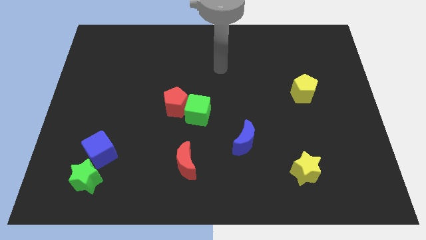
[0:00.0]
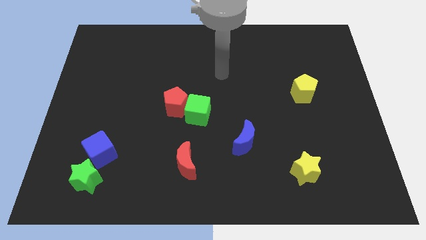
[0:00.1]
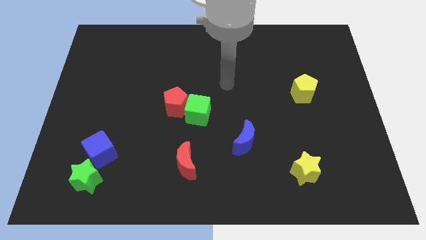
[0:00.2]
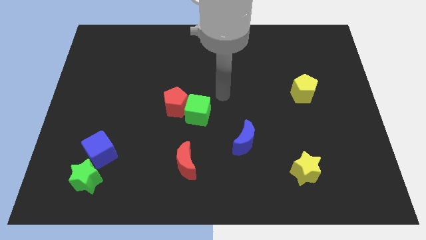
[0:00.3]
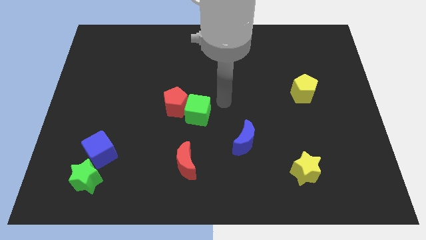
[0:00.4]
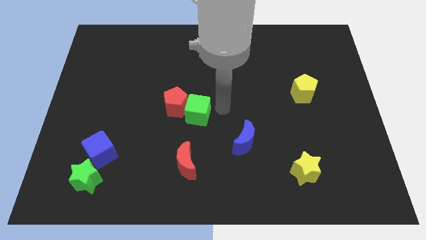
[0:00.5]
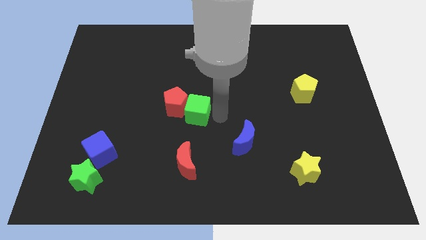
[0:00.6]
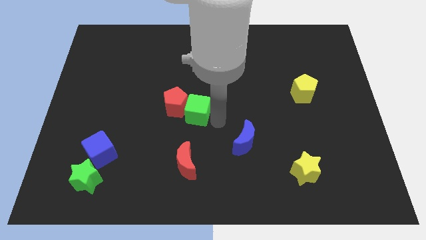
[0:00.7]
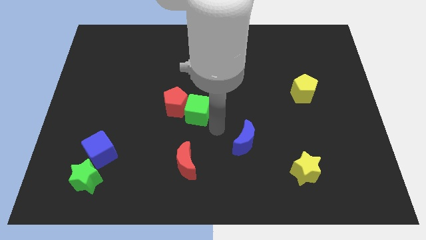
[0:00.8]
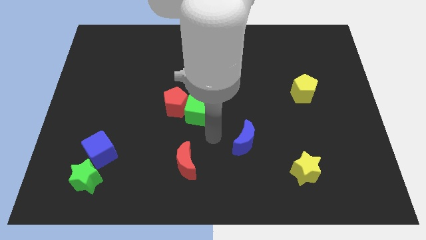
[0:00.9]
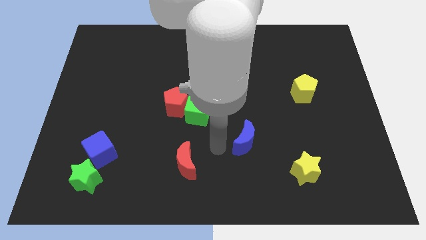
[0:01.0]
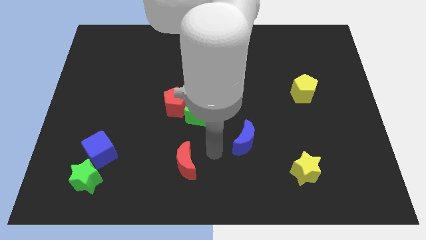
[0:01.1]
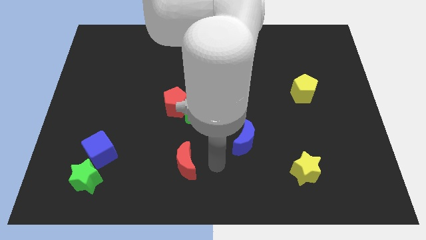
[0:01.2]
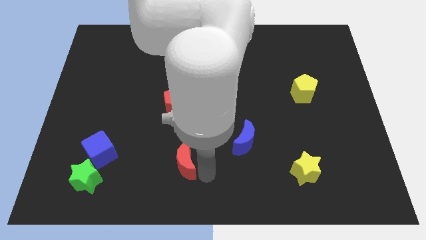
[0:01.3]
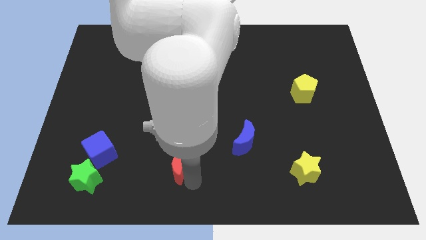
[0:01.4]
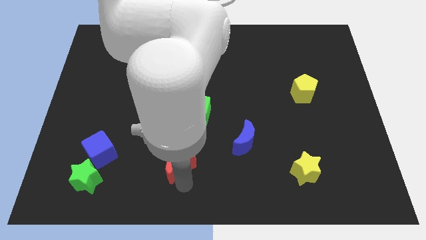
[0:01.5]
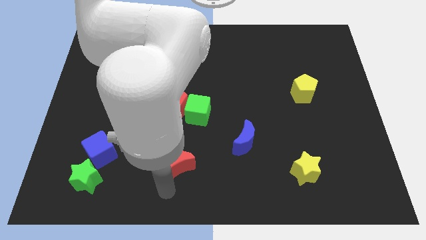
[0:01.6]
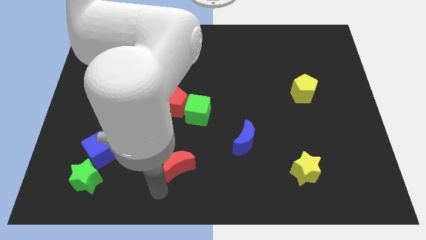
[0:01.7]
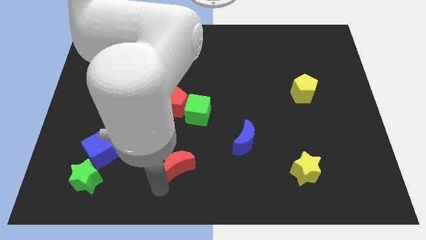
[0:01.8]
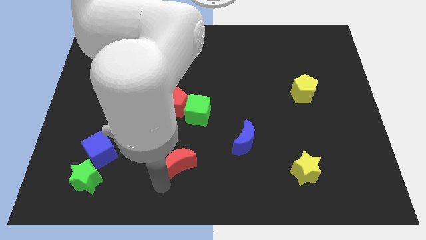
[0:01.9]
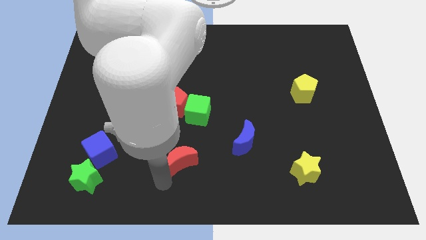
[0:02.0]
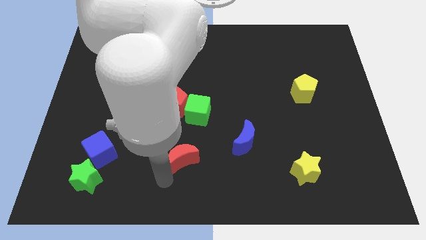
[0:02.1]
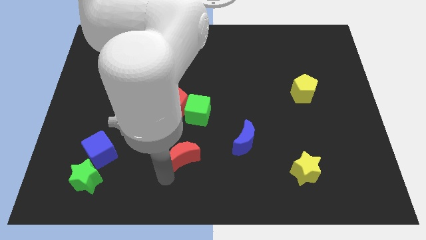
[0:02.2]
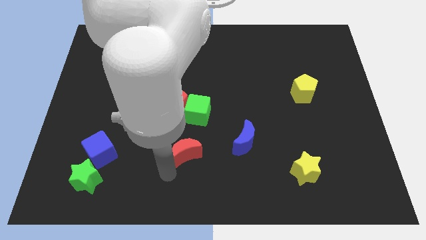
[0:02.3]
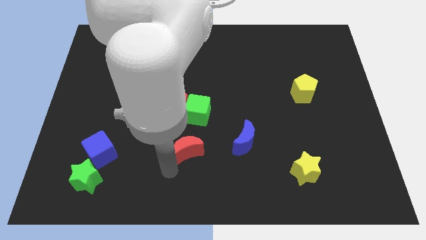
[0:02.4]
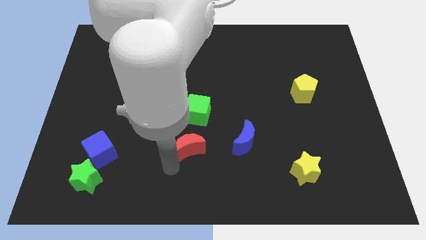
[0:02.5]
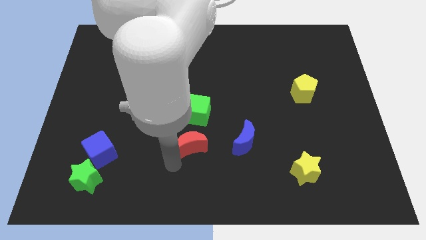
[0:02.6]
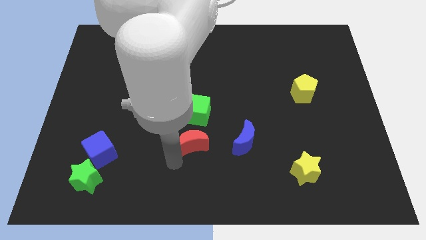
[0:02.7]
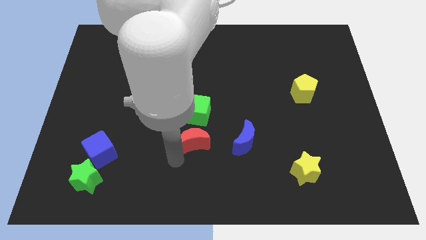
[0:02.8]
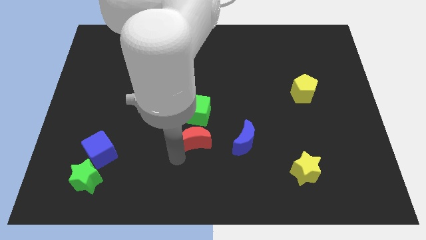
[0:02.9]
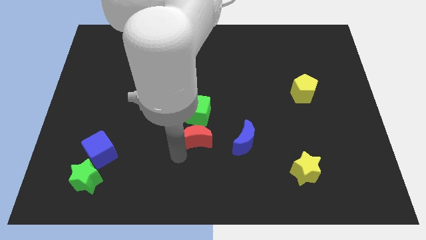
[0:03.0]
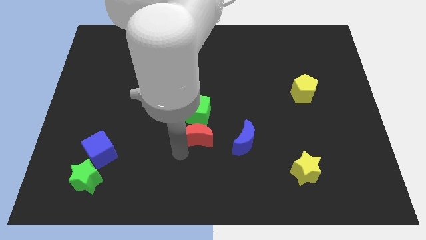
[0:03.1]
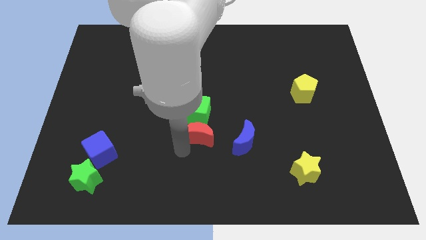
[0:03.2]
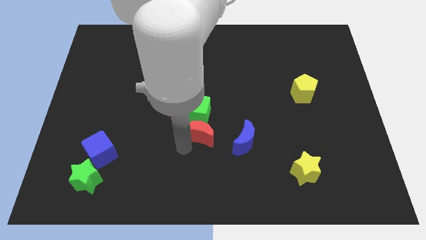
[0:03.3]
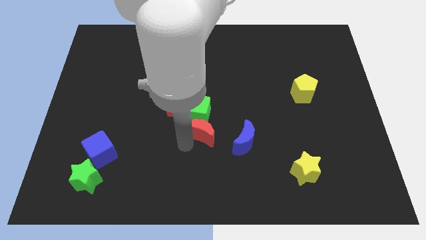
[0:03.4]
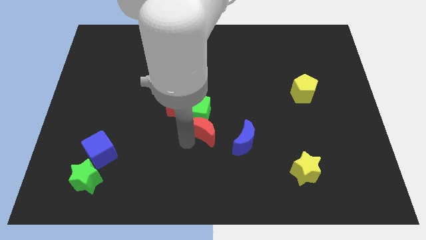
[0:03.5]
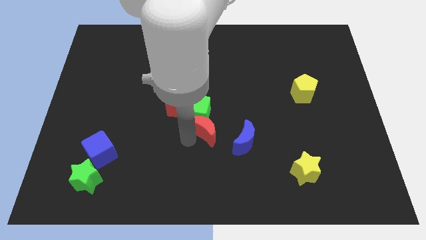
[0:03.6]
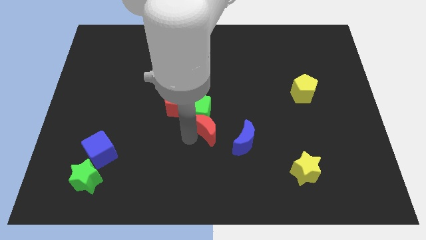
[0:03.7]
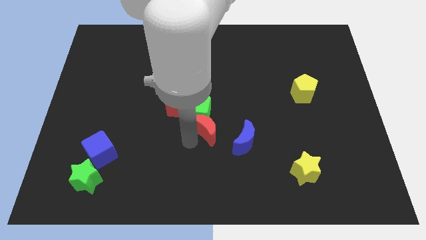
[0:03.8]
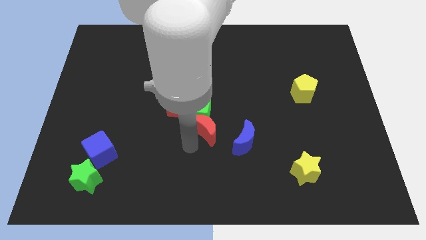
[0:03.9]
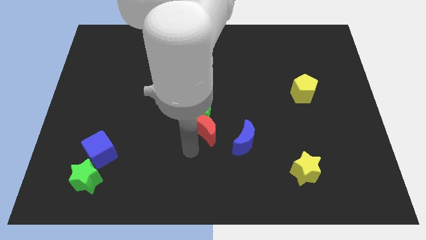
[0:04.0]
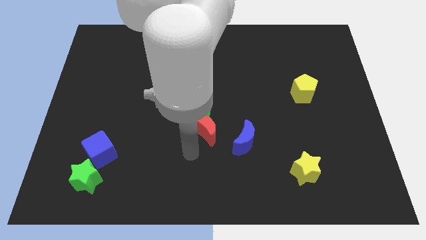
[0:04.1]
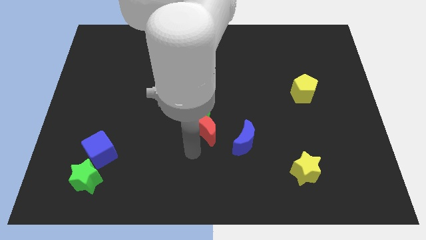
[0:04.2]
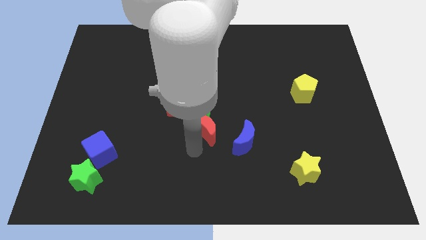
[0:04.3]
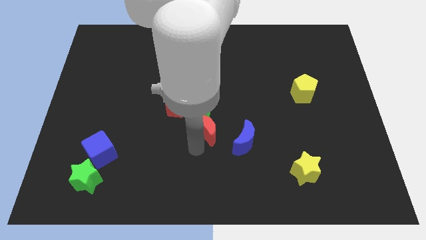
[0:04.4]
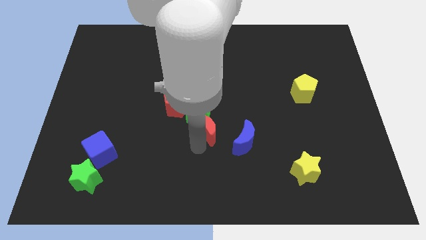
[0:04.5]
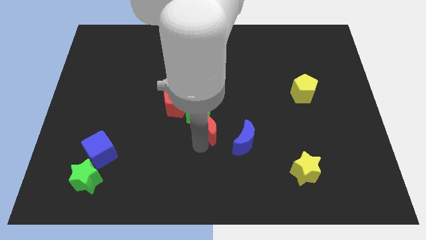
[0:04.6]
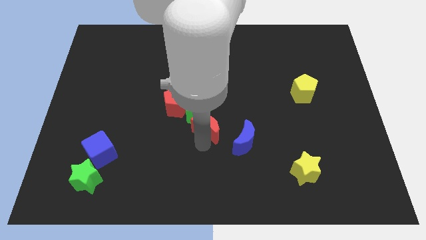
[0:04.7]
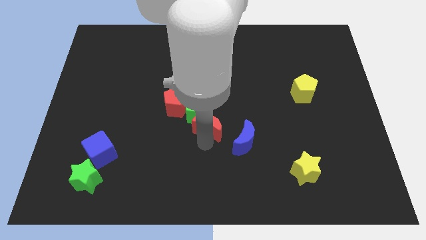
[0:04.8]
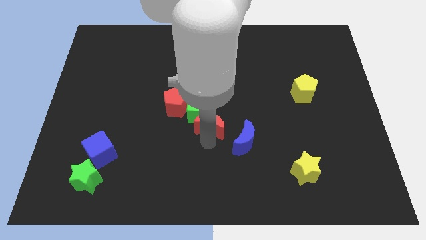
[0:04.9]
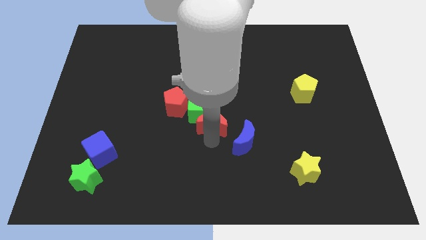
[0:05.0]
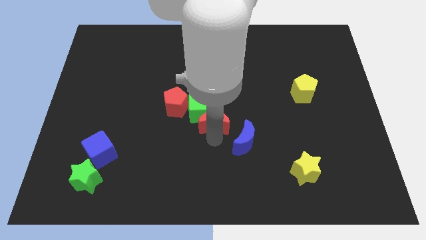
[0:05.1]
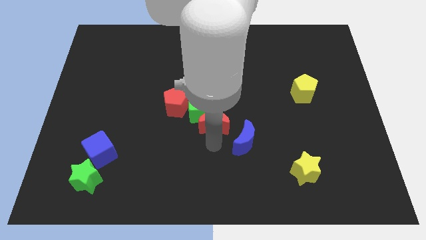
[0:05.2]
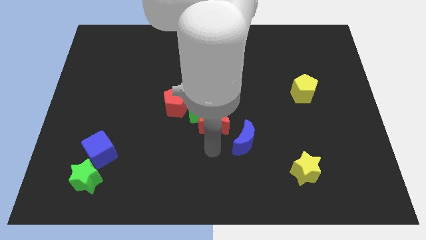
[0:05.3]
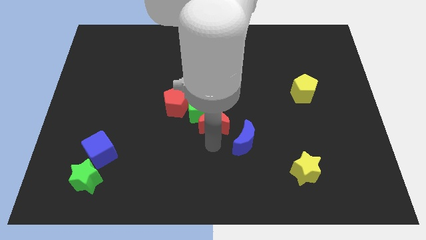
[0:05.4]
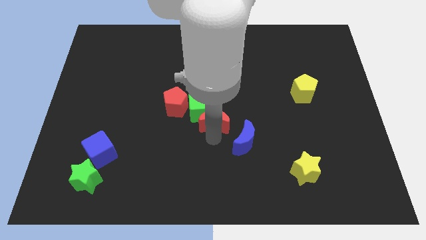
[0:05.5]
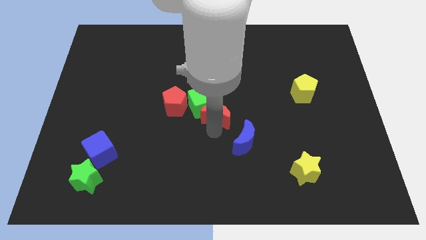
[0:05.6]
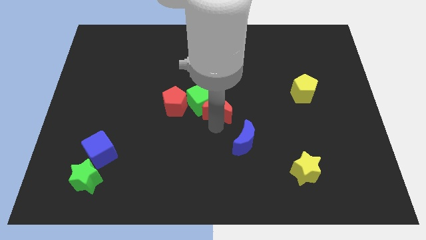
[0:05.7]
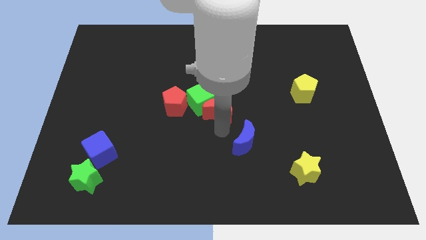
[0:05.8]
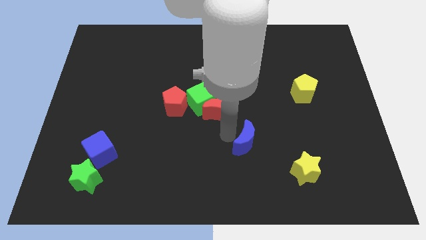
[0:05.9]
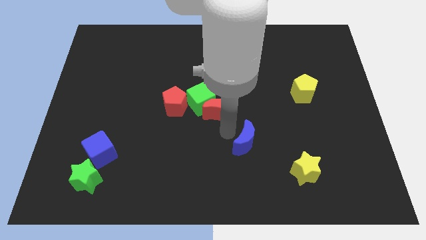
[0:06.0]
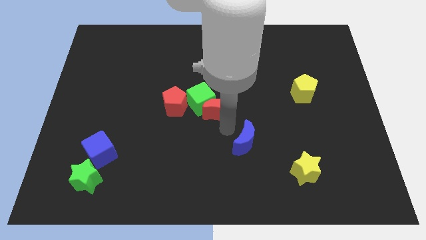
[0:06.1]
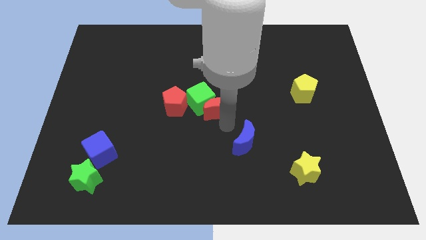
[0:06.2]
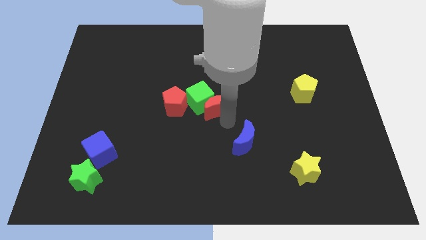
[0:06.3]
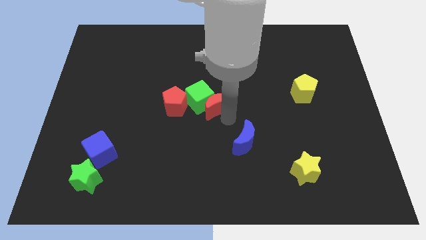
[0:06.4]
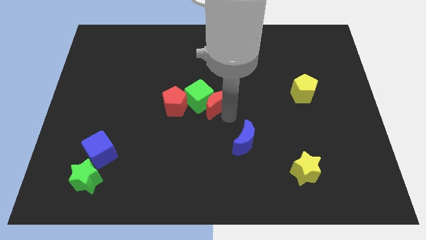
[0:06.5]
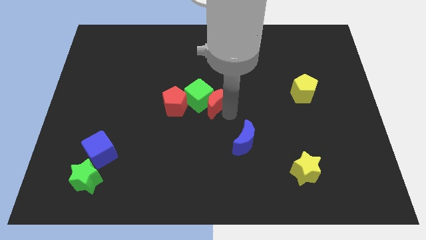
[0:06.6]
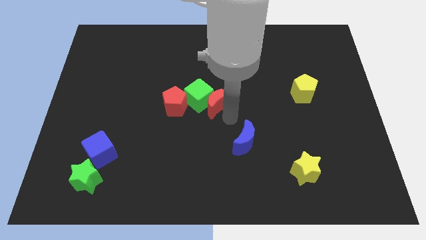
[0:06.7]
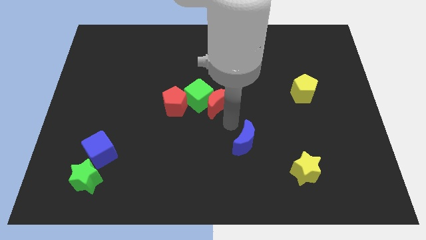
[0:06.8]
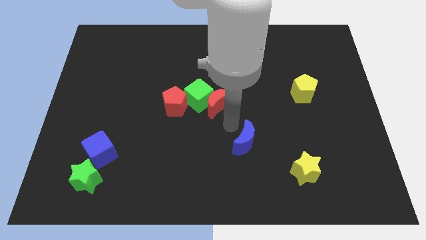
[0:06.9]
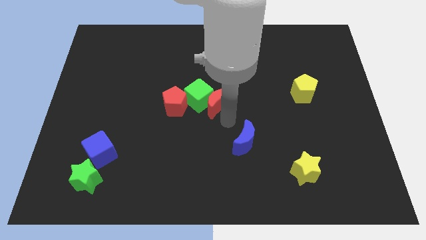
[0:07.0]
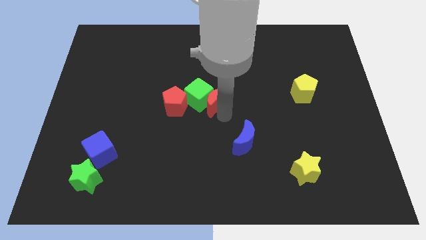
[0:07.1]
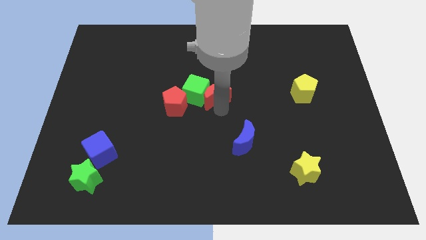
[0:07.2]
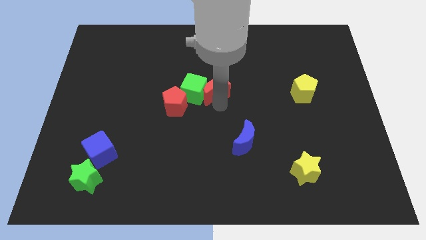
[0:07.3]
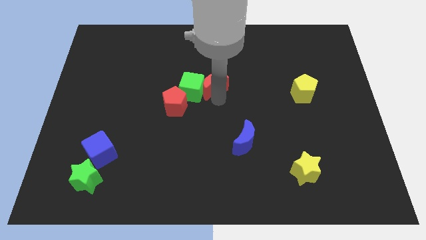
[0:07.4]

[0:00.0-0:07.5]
slide the red moon up

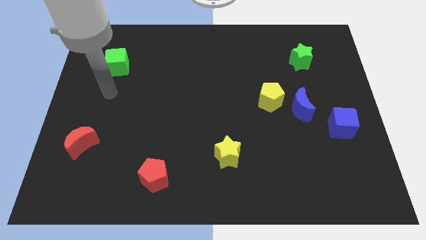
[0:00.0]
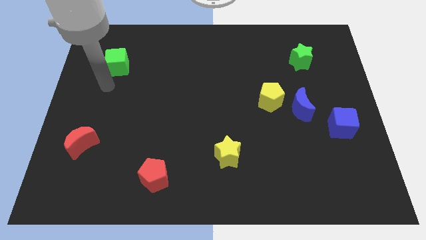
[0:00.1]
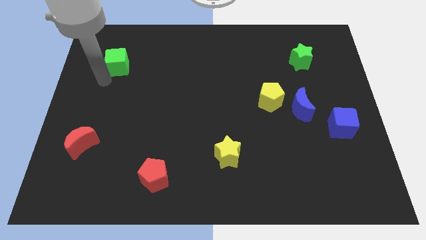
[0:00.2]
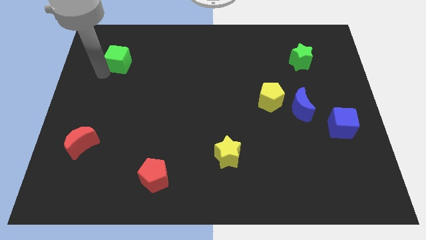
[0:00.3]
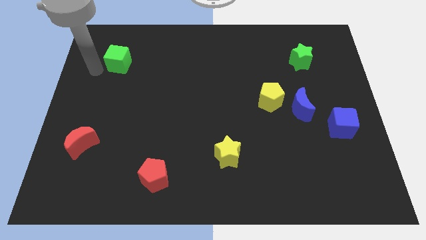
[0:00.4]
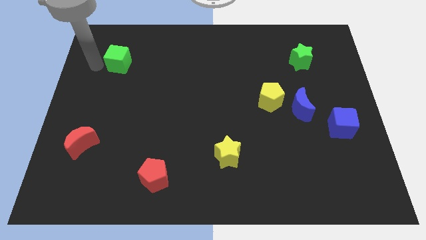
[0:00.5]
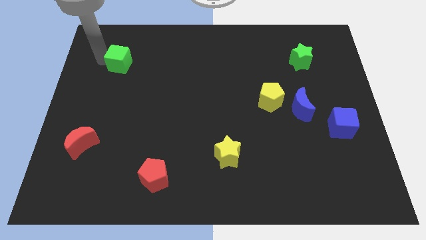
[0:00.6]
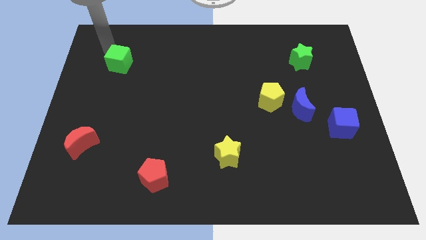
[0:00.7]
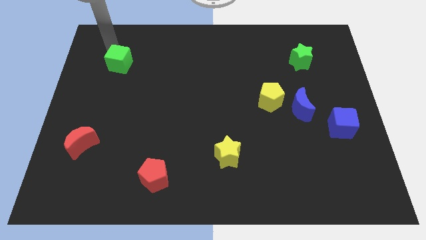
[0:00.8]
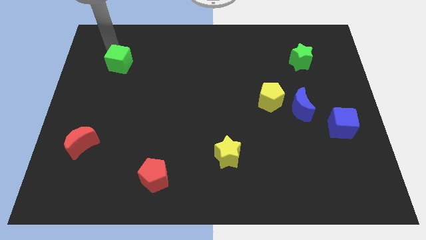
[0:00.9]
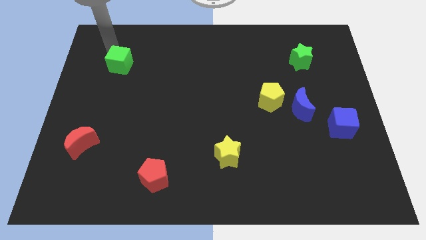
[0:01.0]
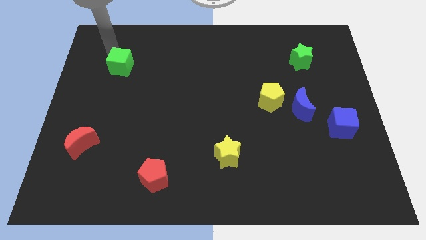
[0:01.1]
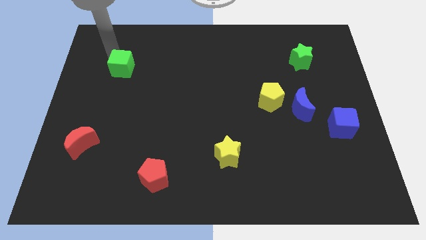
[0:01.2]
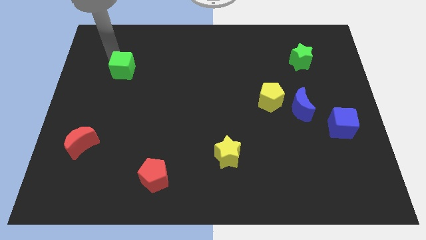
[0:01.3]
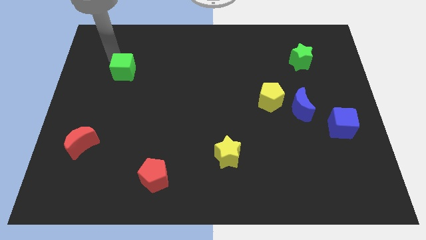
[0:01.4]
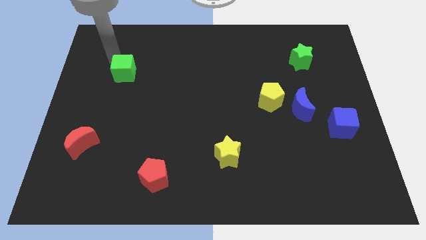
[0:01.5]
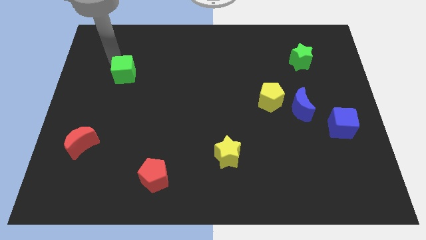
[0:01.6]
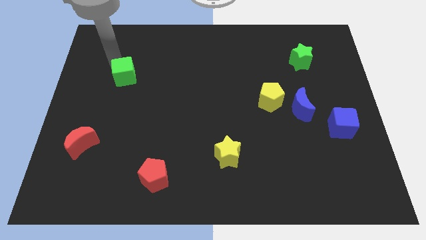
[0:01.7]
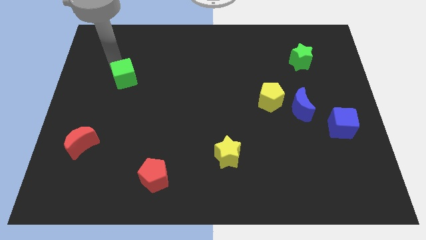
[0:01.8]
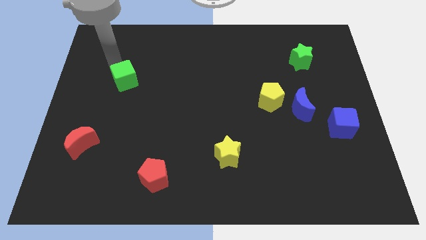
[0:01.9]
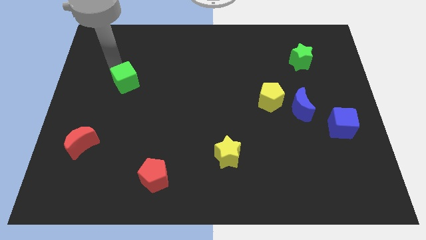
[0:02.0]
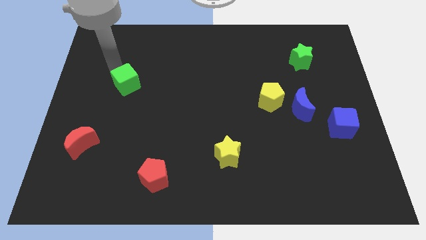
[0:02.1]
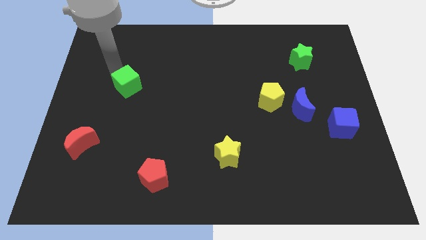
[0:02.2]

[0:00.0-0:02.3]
push the green cube a little downwards and to the right
